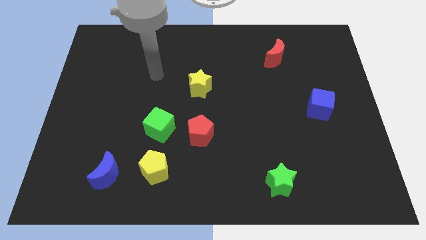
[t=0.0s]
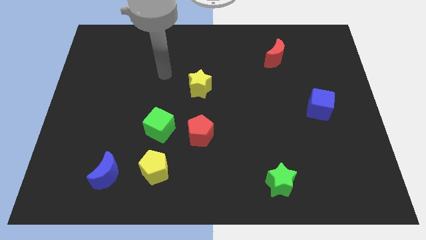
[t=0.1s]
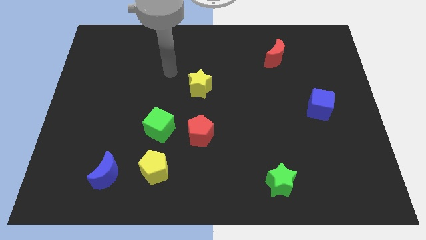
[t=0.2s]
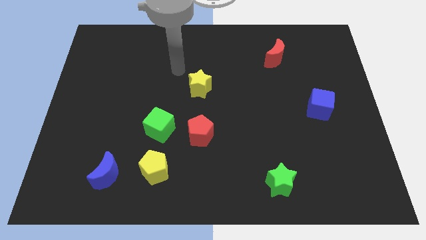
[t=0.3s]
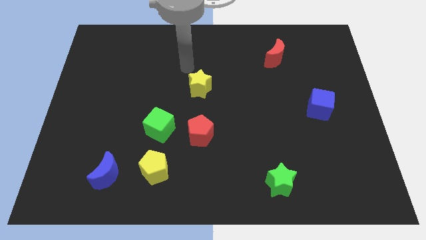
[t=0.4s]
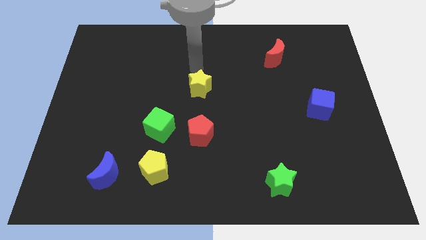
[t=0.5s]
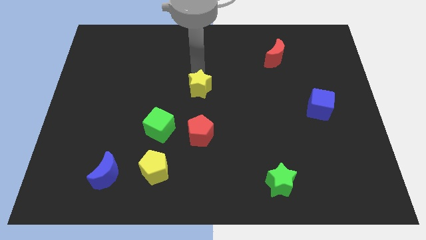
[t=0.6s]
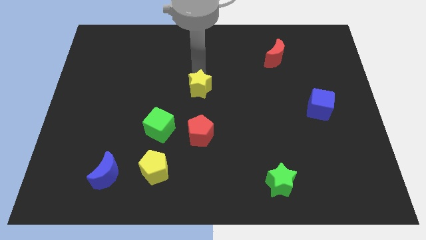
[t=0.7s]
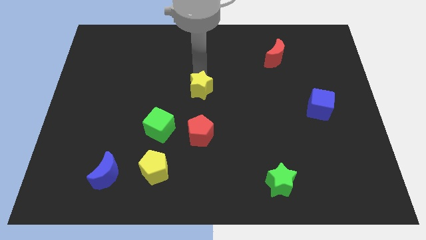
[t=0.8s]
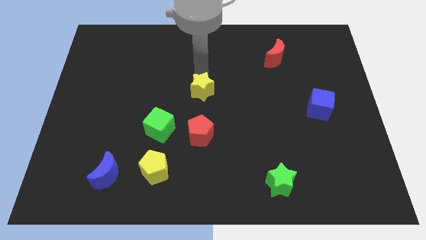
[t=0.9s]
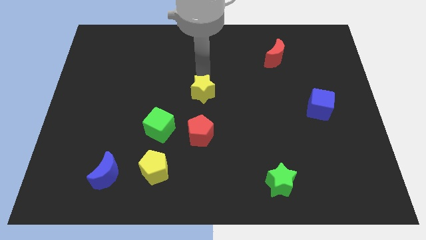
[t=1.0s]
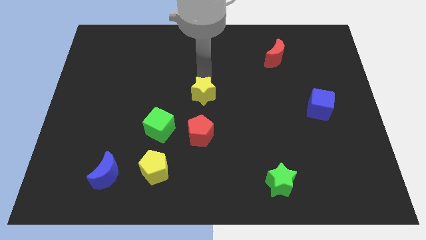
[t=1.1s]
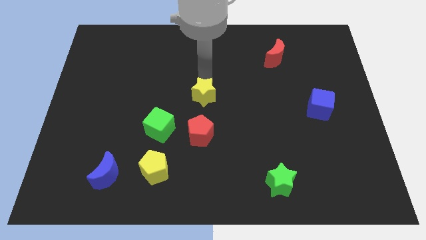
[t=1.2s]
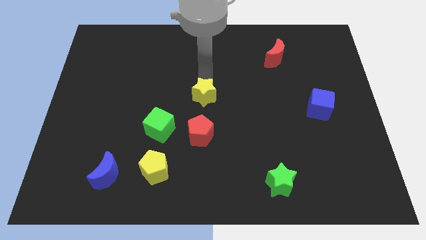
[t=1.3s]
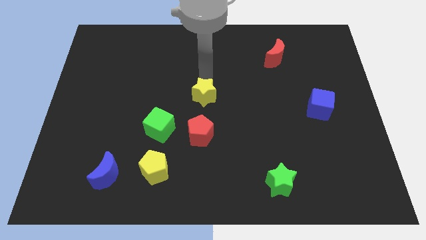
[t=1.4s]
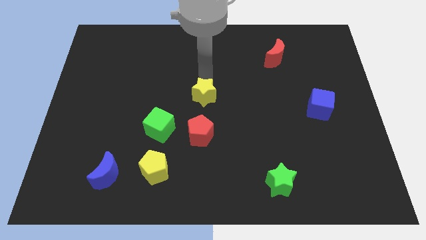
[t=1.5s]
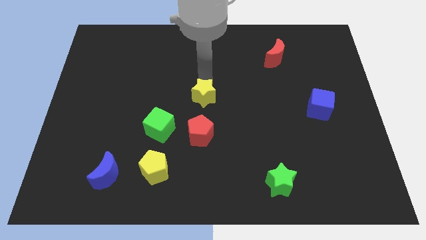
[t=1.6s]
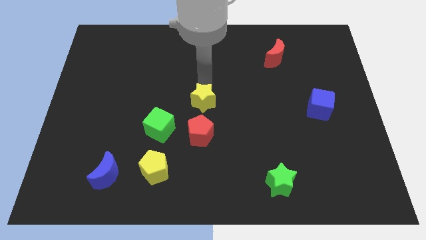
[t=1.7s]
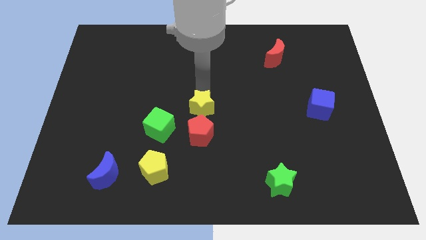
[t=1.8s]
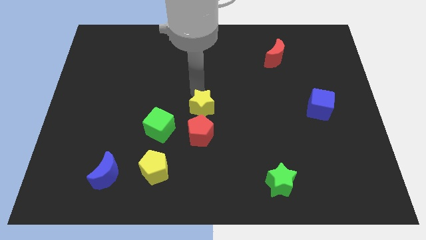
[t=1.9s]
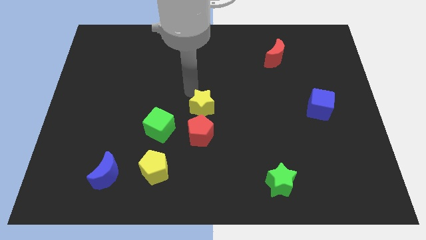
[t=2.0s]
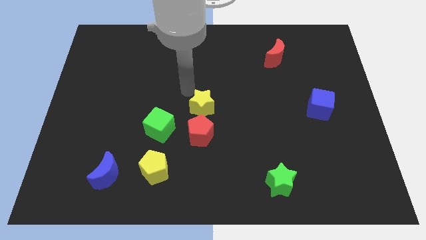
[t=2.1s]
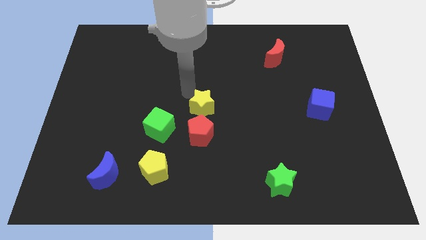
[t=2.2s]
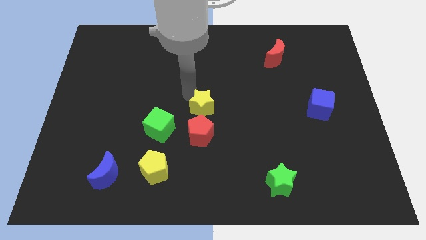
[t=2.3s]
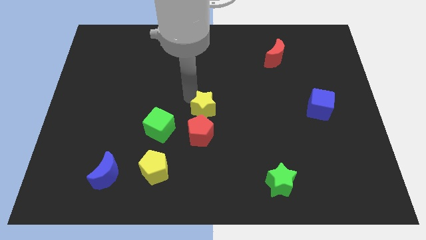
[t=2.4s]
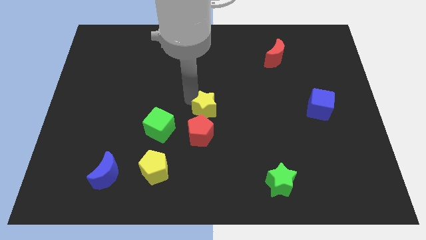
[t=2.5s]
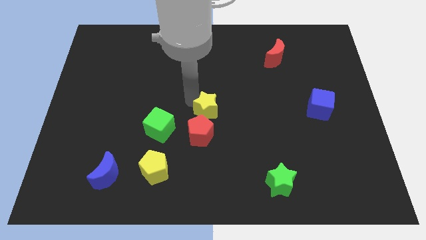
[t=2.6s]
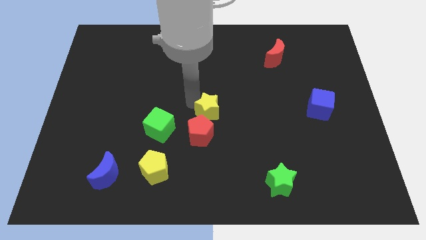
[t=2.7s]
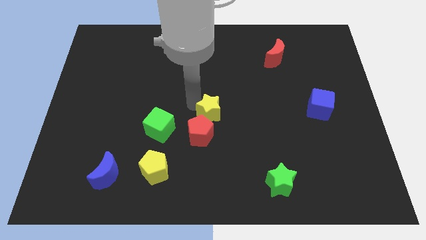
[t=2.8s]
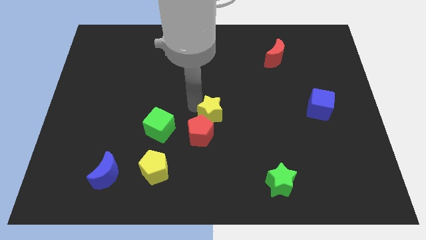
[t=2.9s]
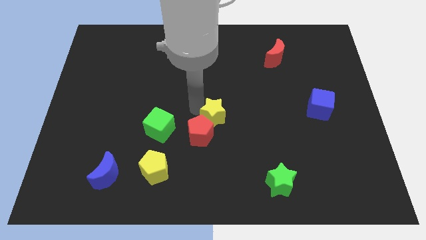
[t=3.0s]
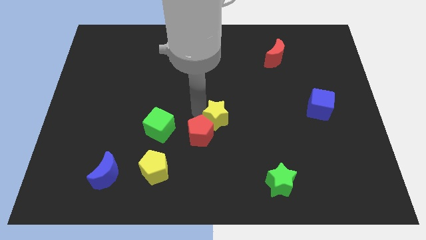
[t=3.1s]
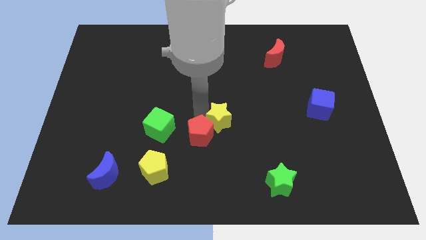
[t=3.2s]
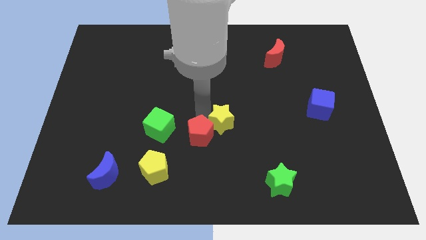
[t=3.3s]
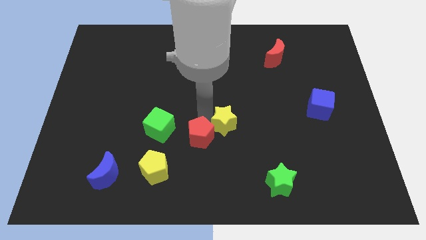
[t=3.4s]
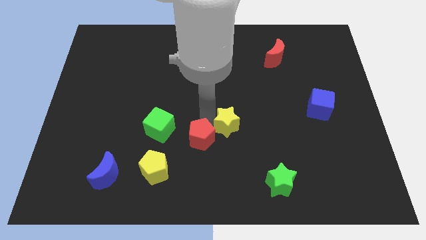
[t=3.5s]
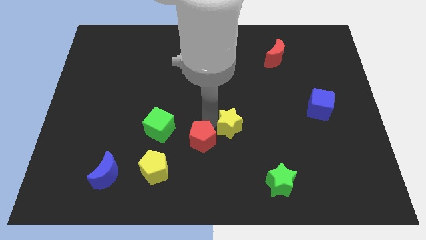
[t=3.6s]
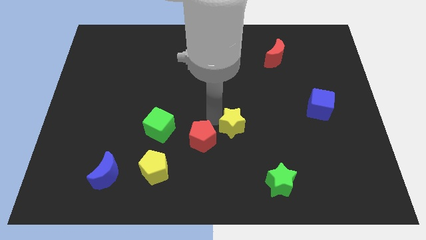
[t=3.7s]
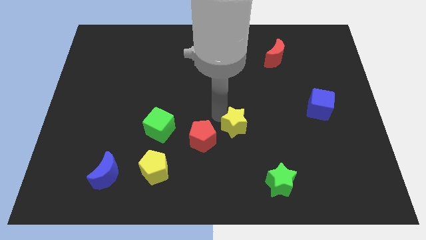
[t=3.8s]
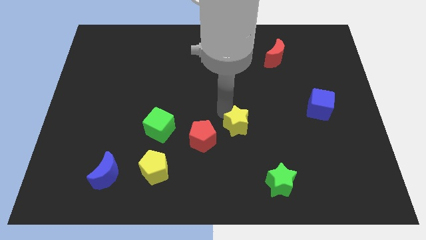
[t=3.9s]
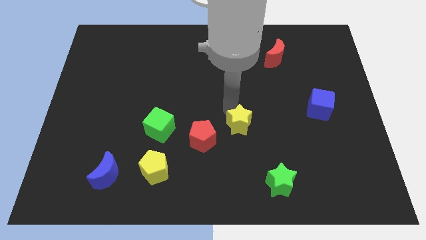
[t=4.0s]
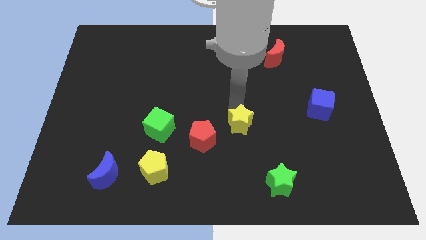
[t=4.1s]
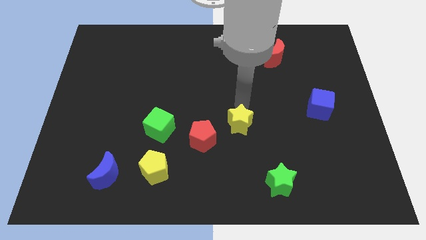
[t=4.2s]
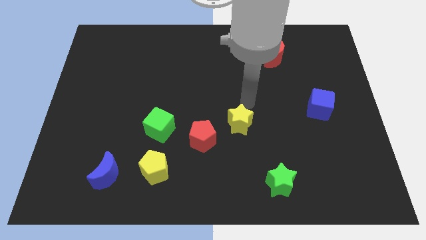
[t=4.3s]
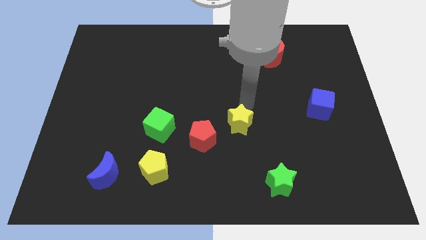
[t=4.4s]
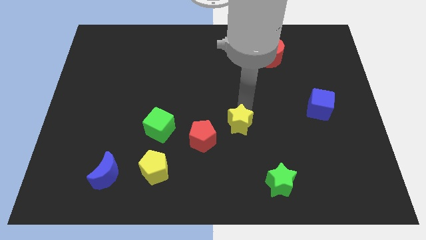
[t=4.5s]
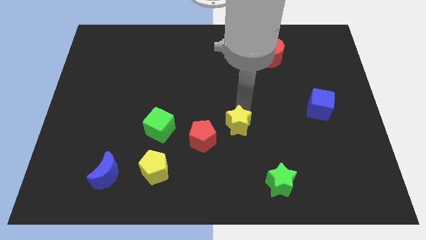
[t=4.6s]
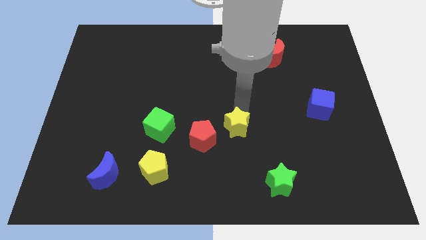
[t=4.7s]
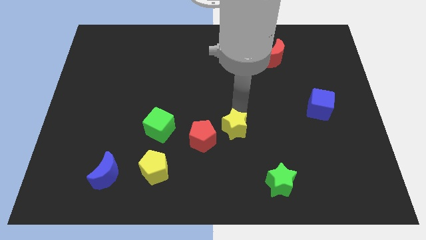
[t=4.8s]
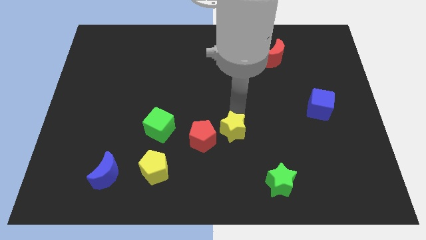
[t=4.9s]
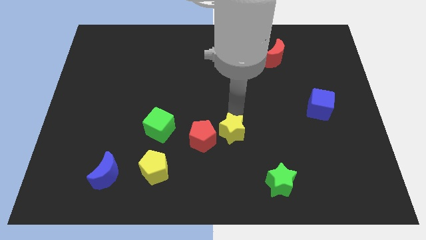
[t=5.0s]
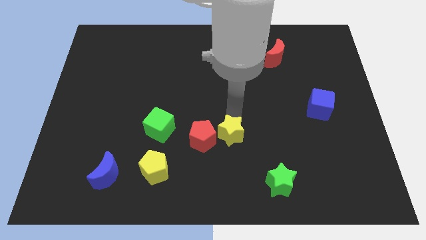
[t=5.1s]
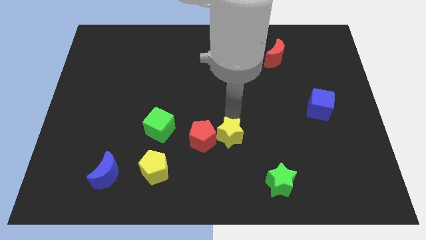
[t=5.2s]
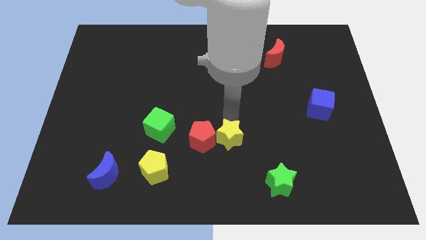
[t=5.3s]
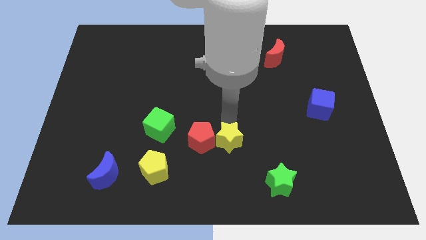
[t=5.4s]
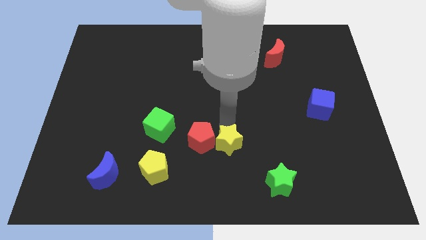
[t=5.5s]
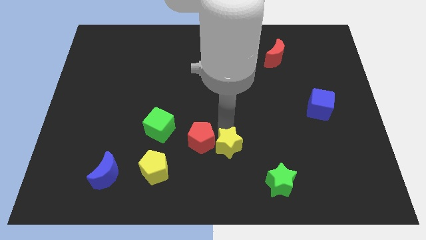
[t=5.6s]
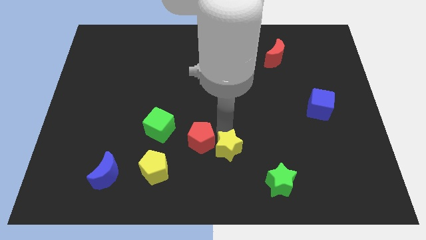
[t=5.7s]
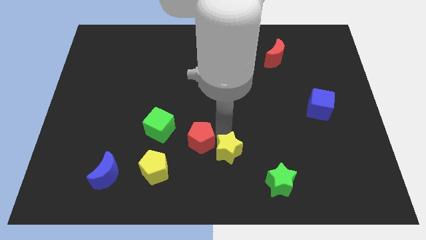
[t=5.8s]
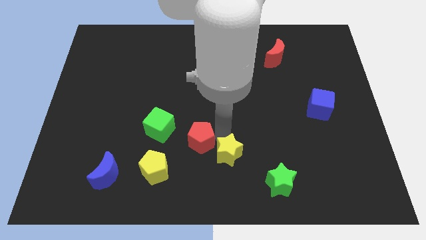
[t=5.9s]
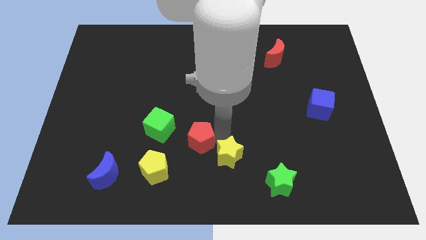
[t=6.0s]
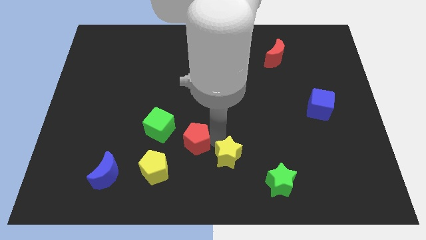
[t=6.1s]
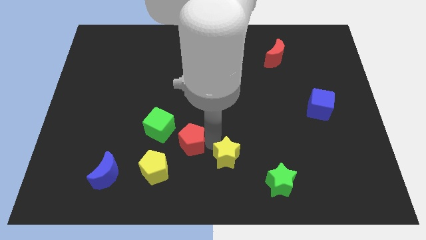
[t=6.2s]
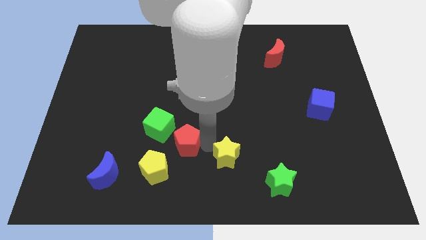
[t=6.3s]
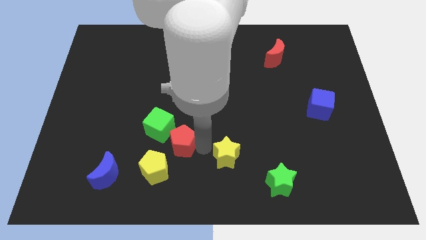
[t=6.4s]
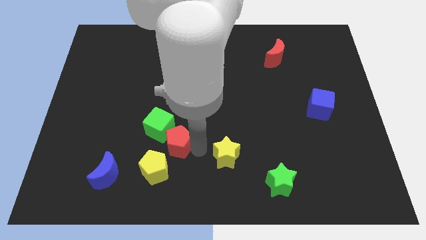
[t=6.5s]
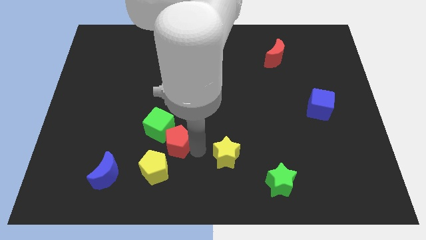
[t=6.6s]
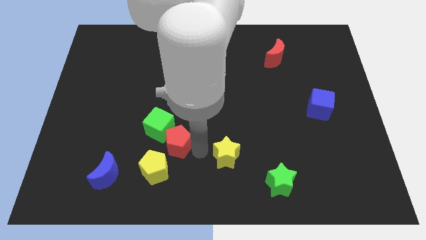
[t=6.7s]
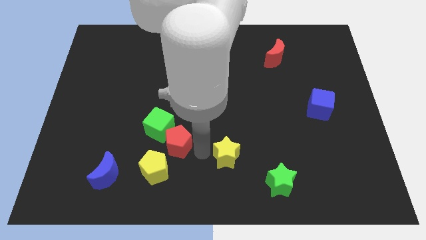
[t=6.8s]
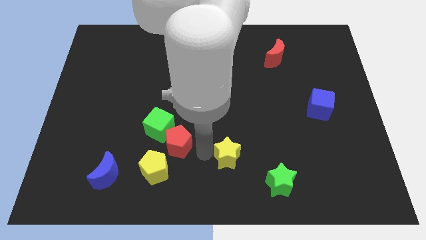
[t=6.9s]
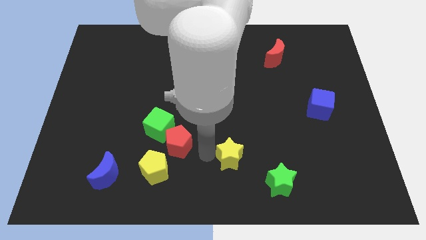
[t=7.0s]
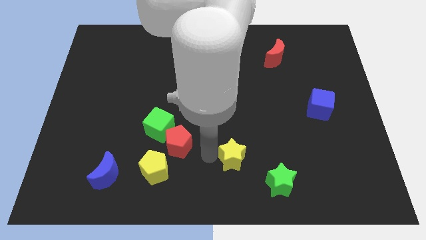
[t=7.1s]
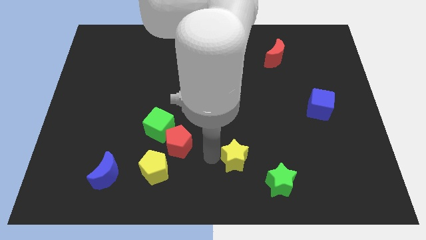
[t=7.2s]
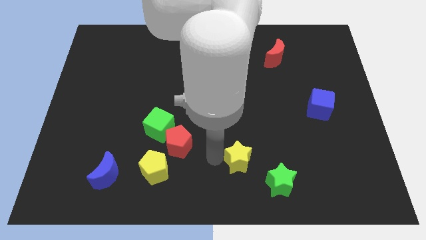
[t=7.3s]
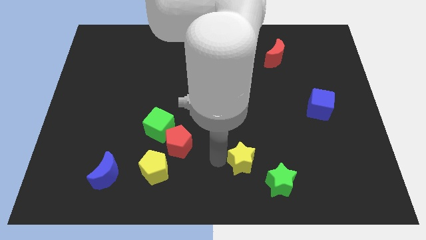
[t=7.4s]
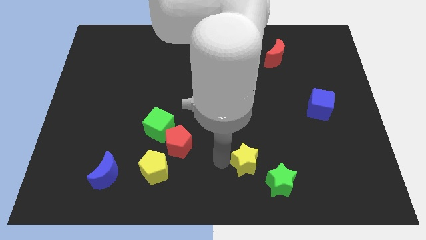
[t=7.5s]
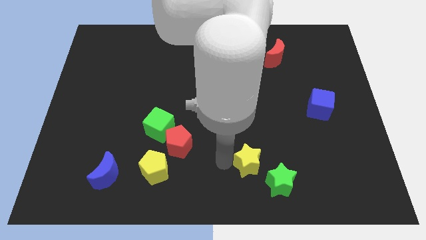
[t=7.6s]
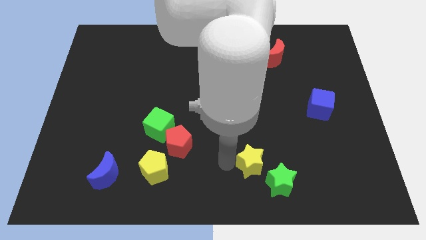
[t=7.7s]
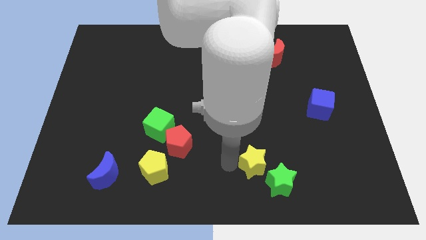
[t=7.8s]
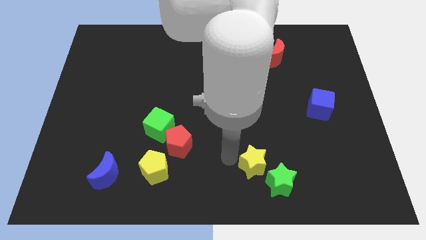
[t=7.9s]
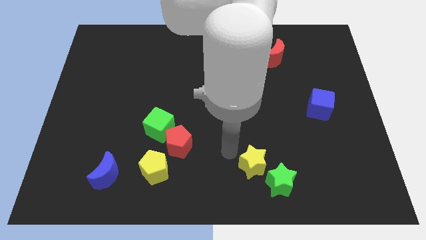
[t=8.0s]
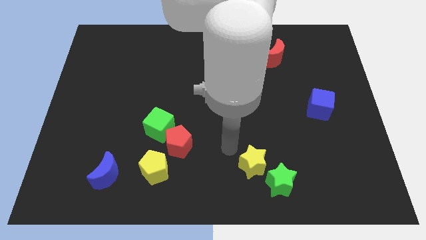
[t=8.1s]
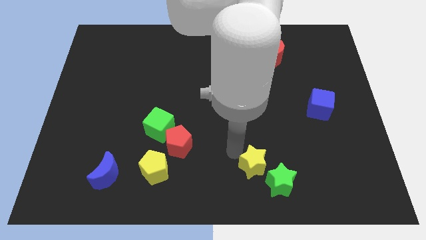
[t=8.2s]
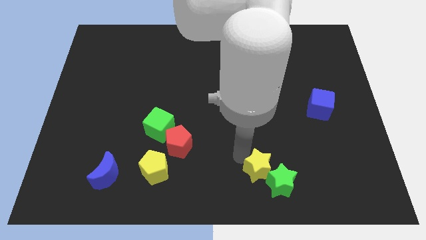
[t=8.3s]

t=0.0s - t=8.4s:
put the yellow star to the green star
